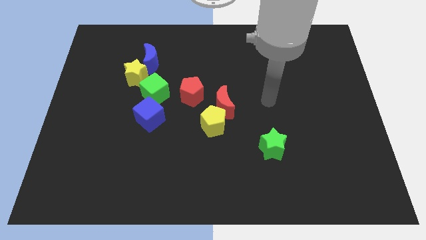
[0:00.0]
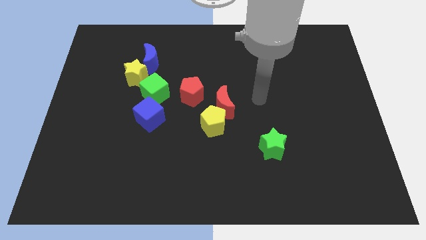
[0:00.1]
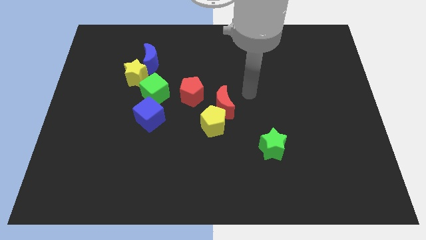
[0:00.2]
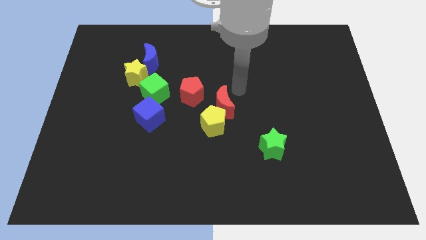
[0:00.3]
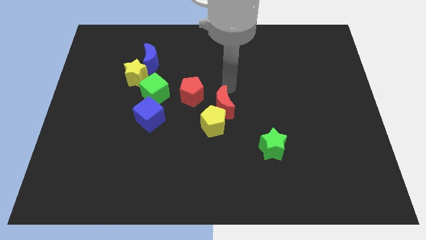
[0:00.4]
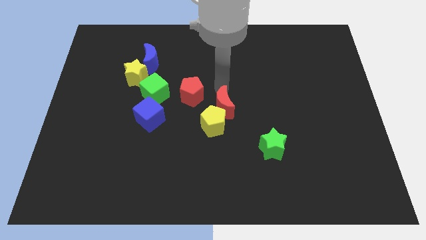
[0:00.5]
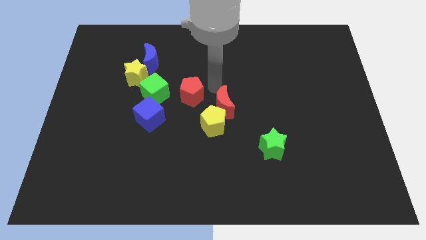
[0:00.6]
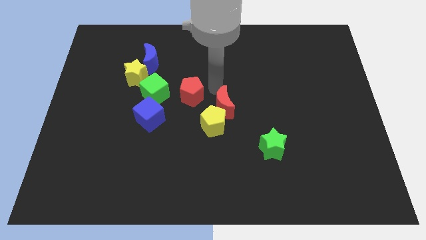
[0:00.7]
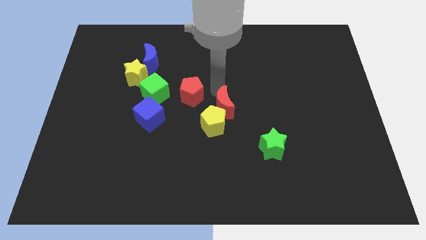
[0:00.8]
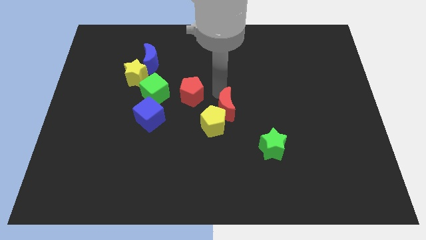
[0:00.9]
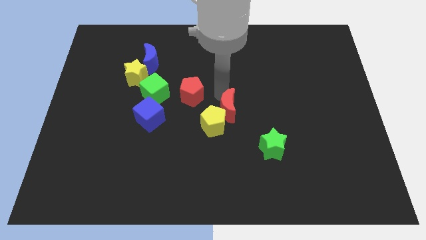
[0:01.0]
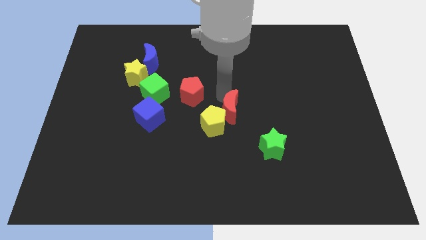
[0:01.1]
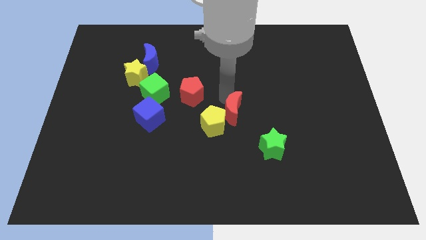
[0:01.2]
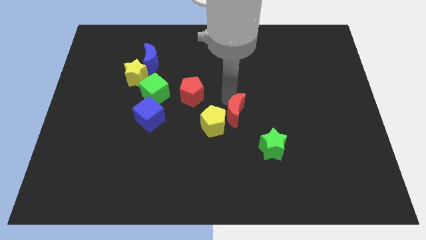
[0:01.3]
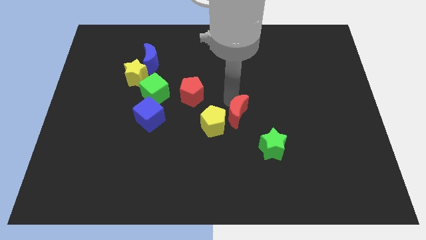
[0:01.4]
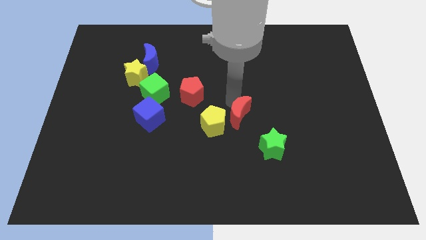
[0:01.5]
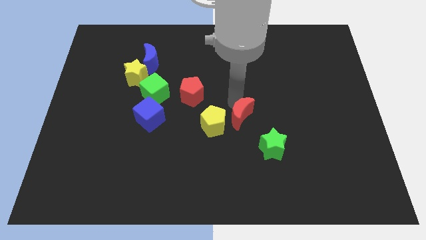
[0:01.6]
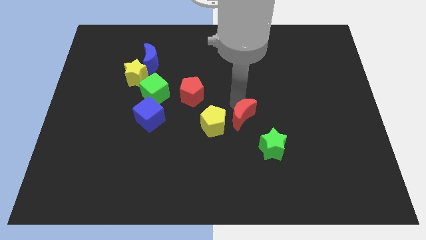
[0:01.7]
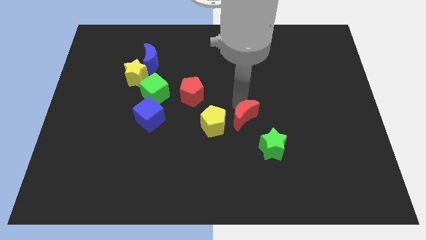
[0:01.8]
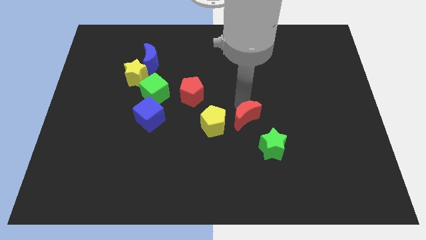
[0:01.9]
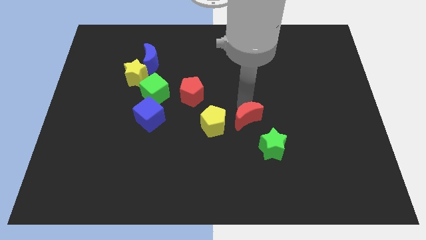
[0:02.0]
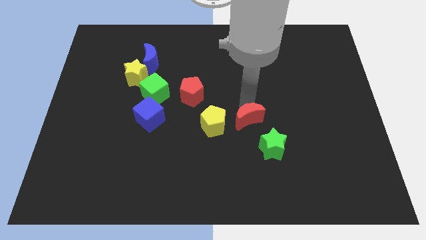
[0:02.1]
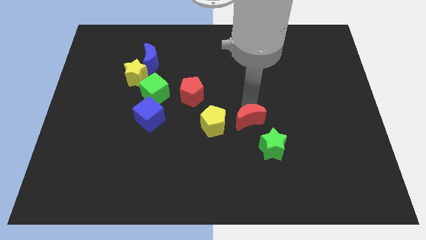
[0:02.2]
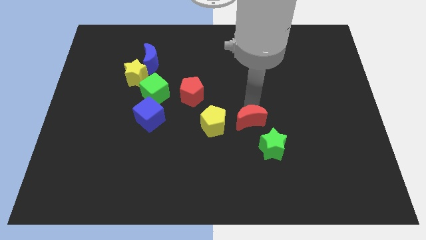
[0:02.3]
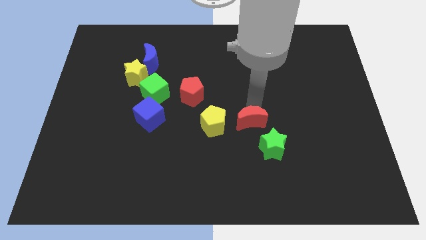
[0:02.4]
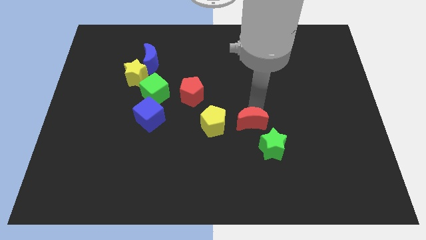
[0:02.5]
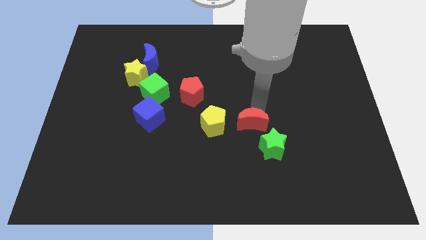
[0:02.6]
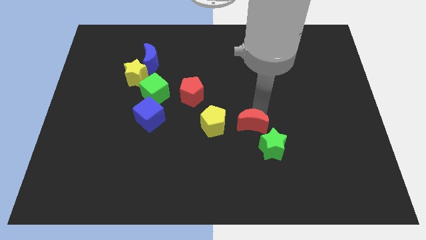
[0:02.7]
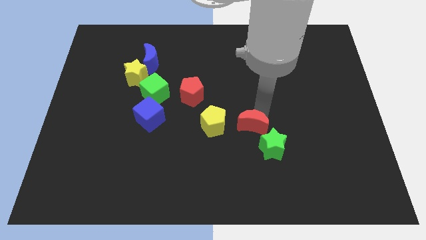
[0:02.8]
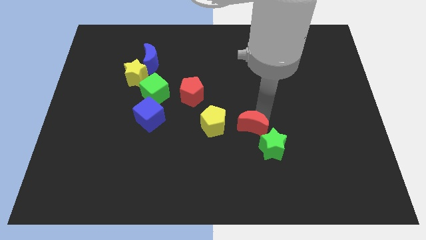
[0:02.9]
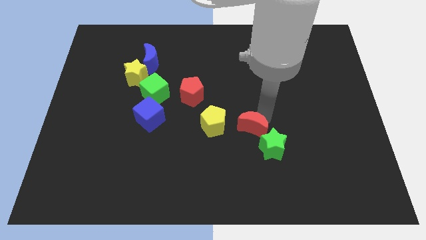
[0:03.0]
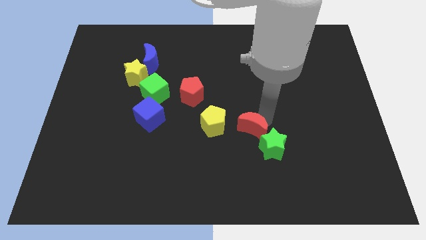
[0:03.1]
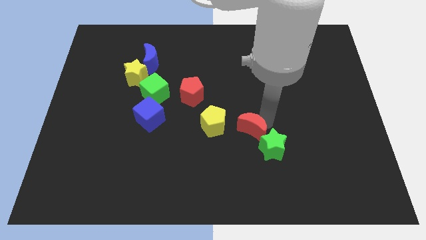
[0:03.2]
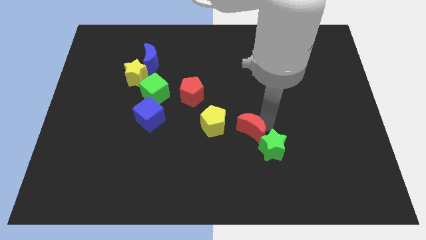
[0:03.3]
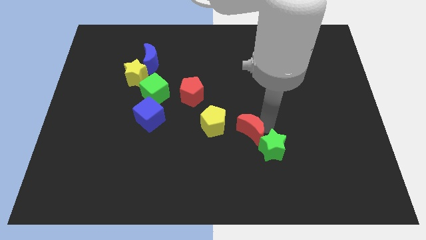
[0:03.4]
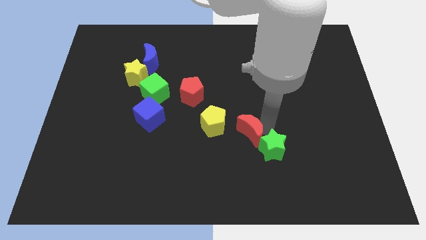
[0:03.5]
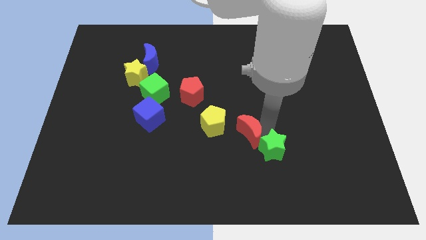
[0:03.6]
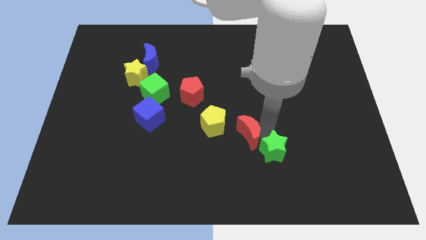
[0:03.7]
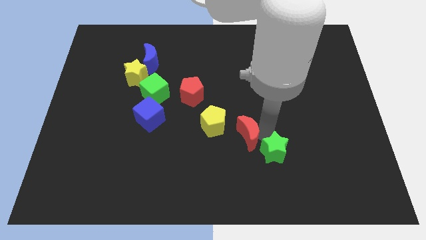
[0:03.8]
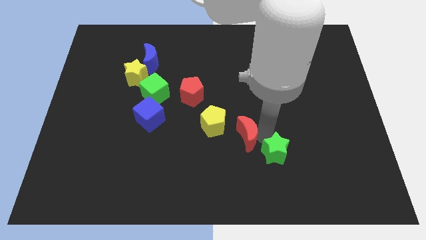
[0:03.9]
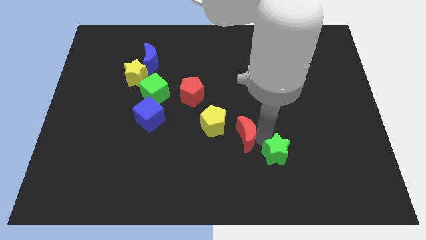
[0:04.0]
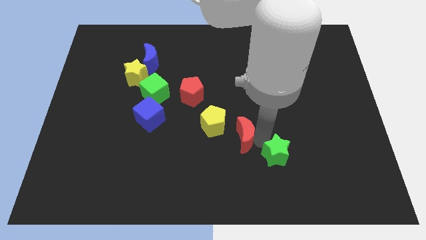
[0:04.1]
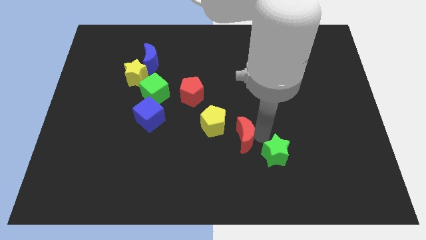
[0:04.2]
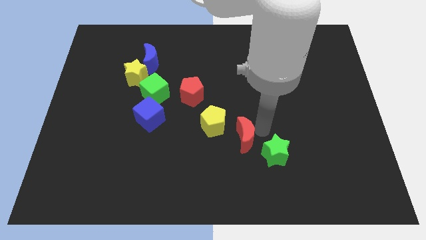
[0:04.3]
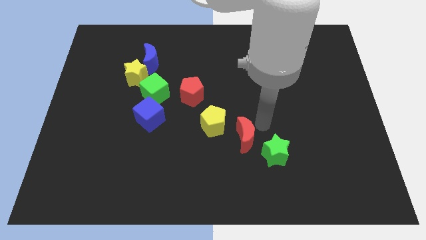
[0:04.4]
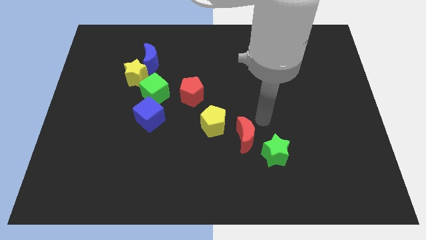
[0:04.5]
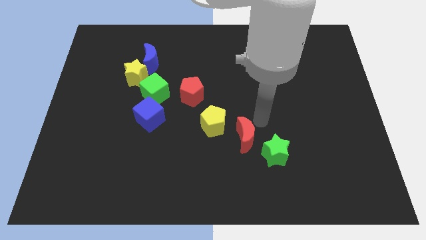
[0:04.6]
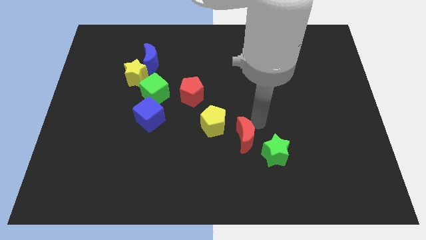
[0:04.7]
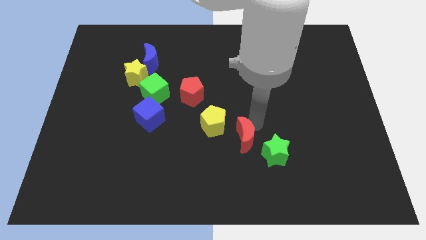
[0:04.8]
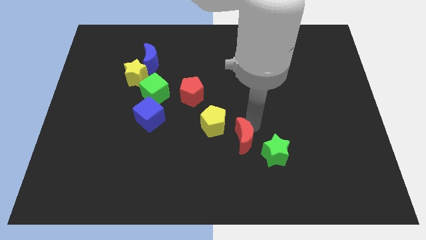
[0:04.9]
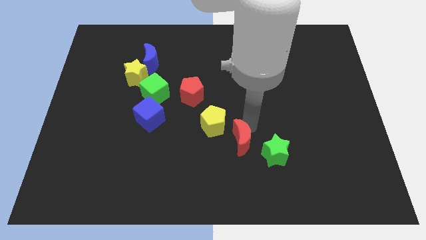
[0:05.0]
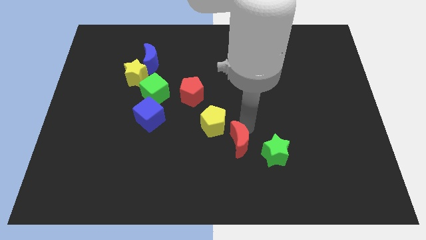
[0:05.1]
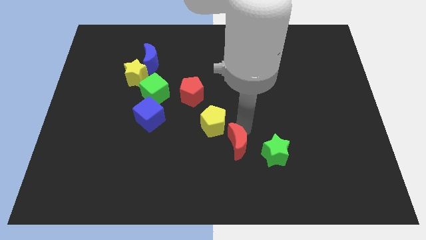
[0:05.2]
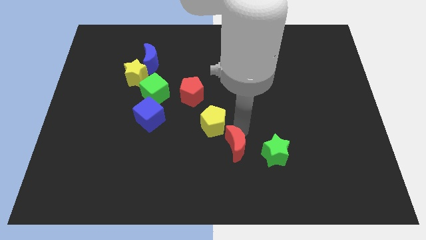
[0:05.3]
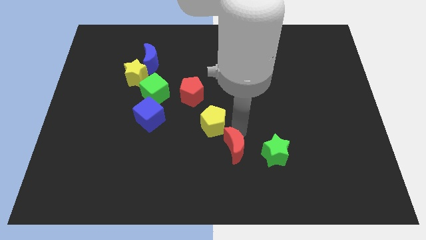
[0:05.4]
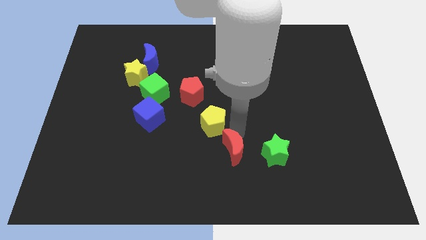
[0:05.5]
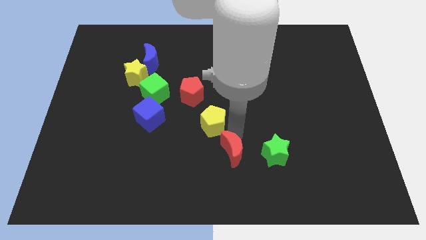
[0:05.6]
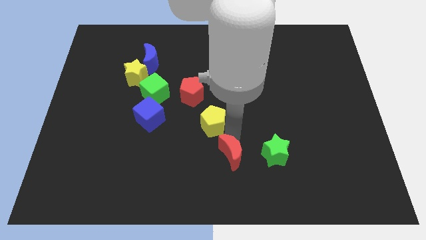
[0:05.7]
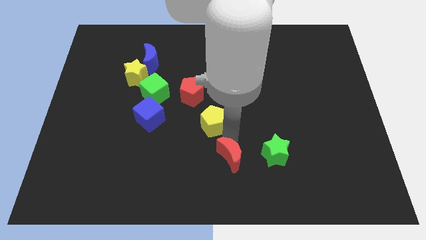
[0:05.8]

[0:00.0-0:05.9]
put the red moon to the bottom side
